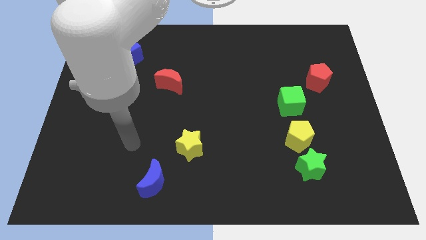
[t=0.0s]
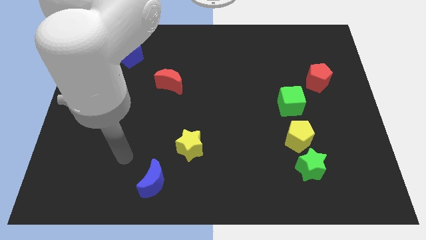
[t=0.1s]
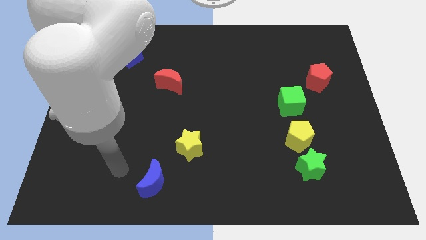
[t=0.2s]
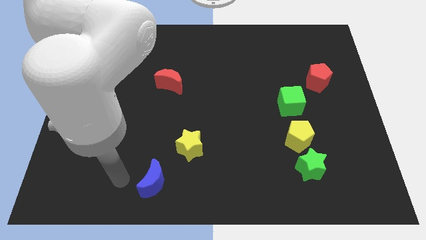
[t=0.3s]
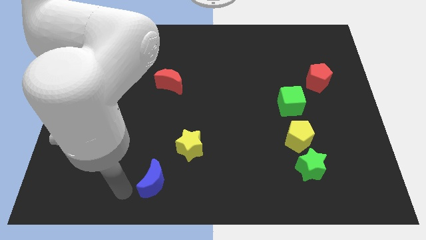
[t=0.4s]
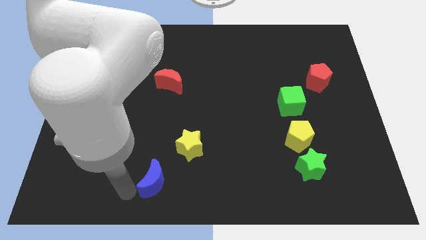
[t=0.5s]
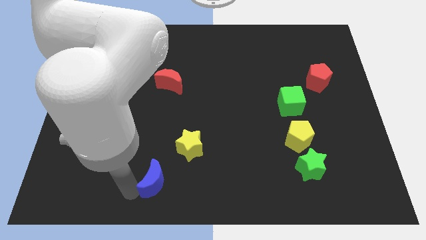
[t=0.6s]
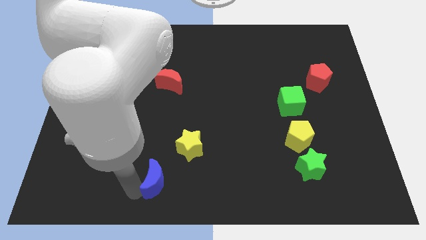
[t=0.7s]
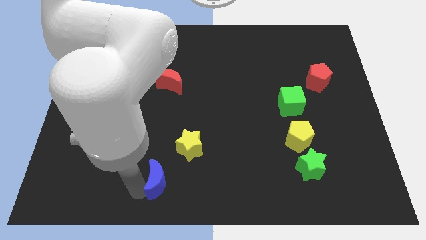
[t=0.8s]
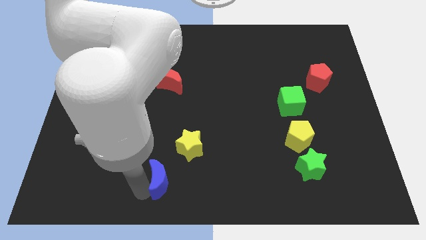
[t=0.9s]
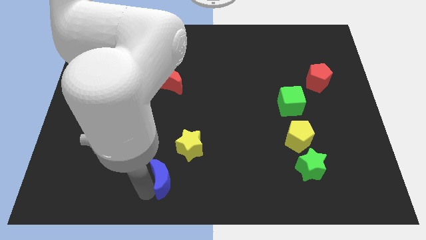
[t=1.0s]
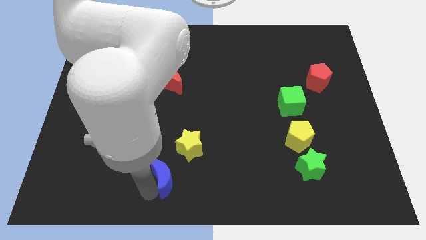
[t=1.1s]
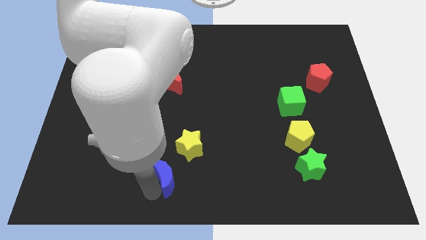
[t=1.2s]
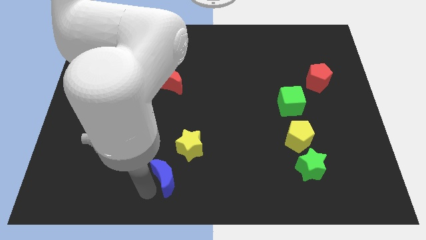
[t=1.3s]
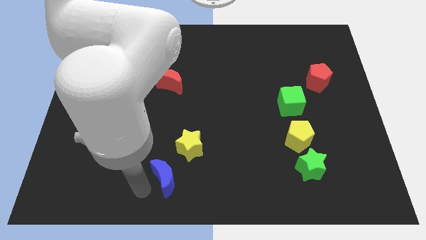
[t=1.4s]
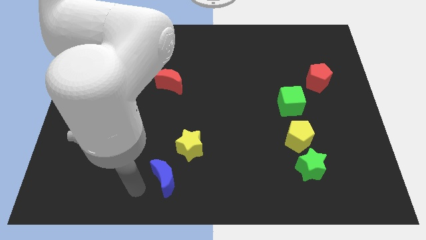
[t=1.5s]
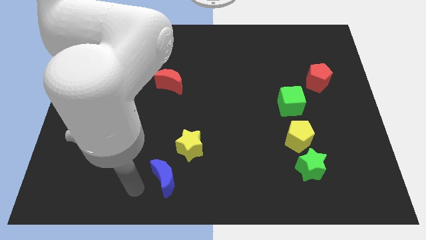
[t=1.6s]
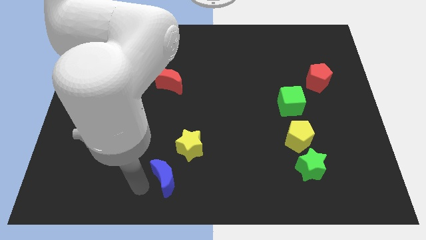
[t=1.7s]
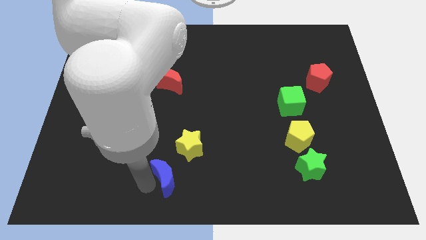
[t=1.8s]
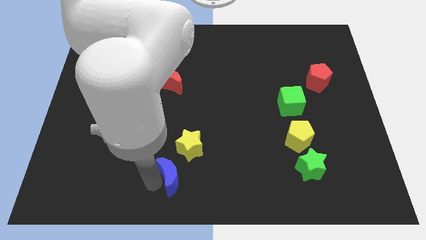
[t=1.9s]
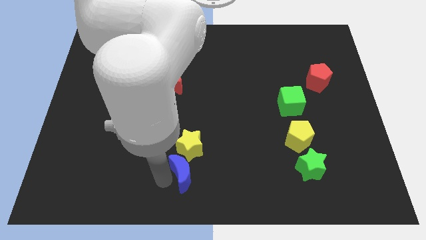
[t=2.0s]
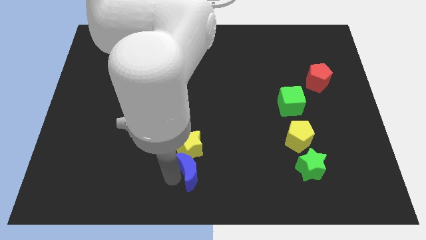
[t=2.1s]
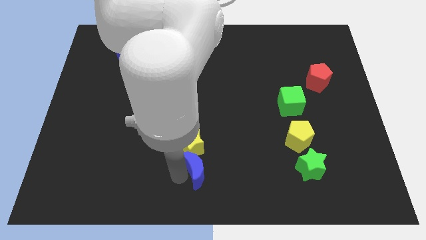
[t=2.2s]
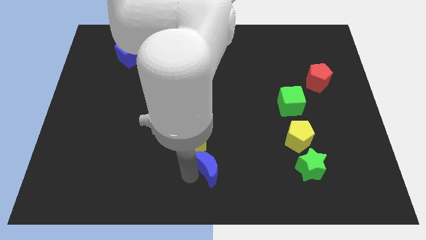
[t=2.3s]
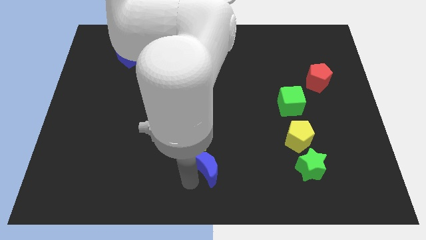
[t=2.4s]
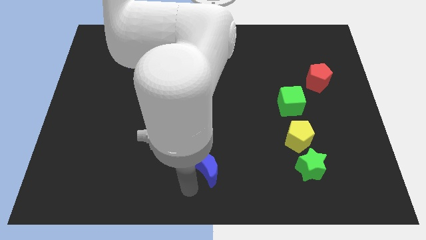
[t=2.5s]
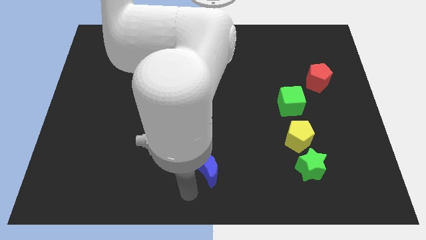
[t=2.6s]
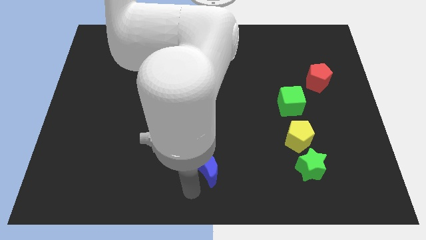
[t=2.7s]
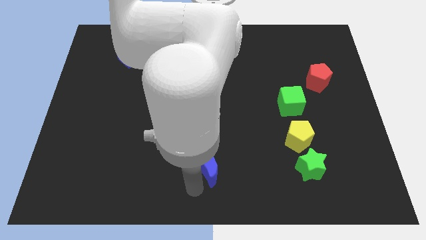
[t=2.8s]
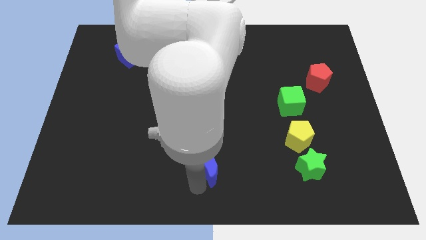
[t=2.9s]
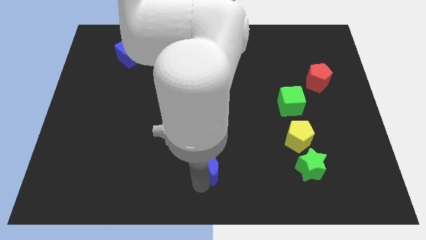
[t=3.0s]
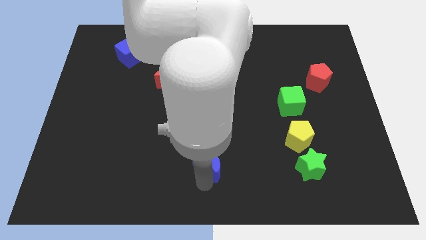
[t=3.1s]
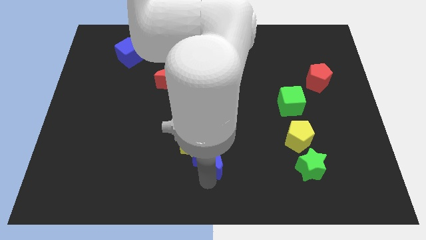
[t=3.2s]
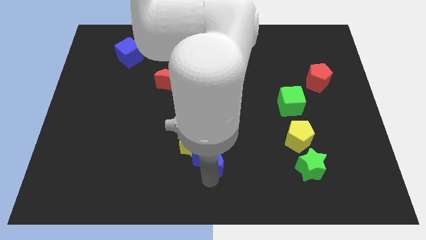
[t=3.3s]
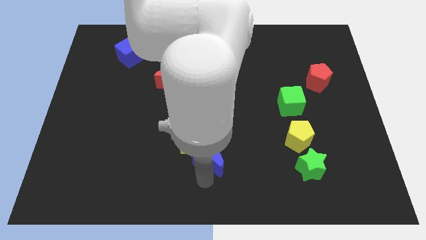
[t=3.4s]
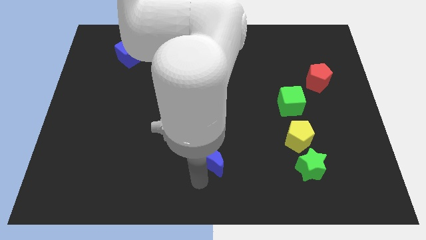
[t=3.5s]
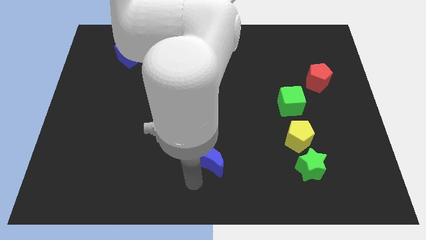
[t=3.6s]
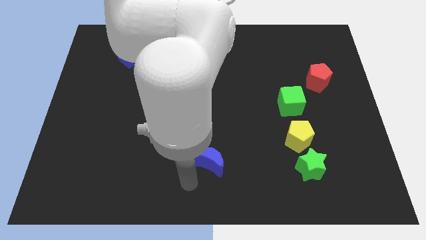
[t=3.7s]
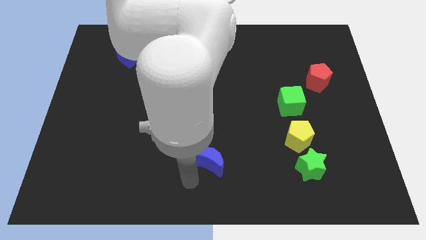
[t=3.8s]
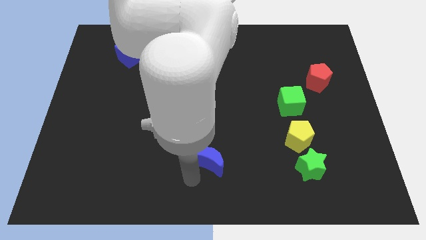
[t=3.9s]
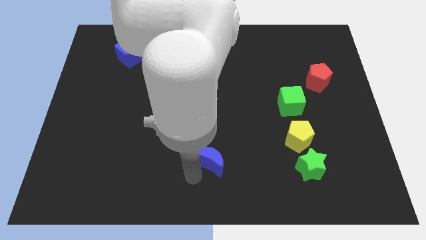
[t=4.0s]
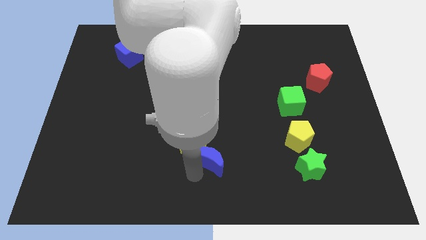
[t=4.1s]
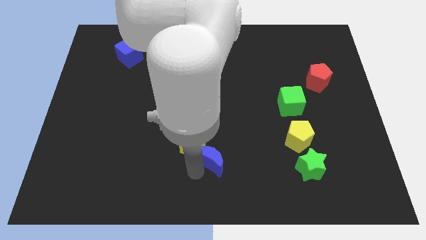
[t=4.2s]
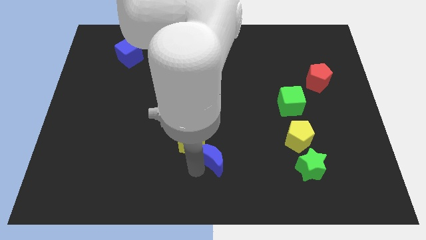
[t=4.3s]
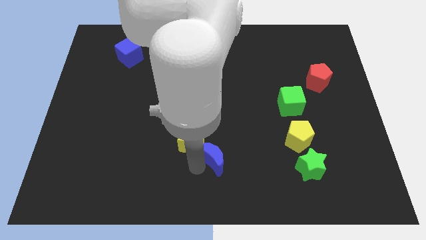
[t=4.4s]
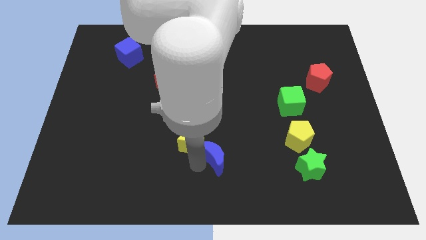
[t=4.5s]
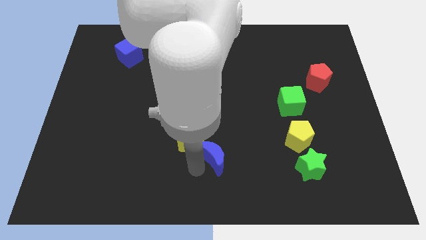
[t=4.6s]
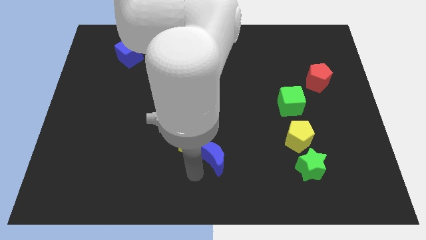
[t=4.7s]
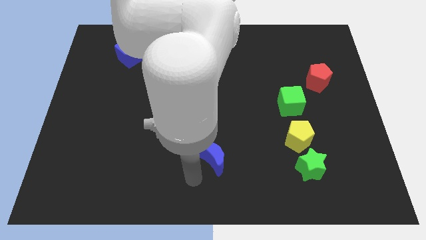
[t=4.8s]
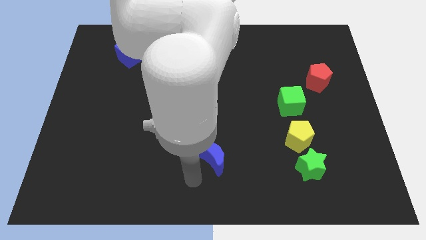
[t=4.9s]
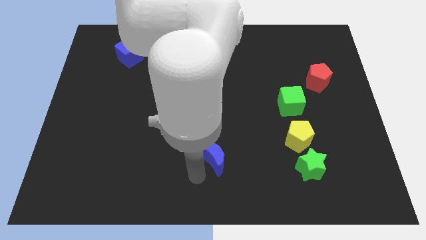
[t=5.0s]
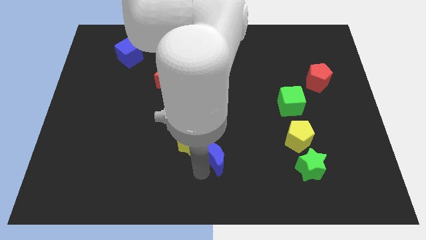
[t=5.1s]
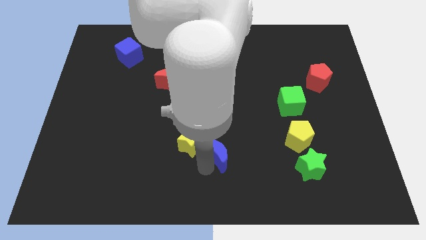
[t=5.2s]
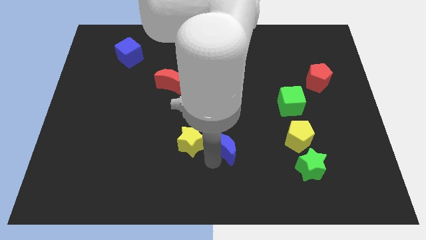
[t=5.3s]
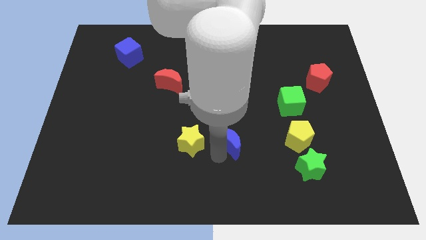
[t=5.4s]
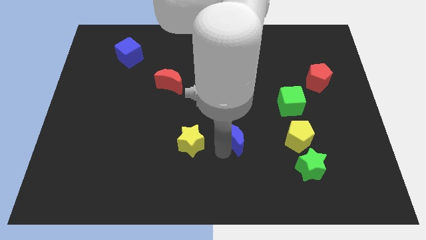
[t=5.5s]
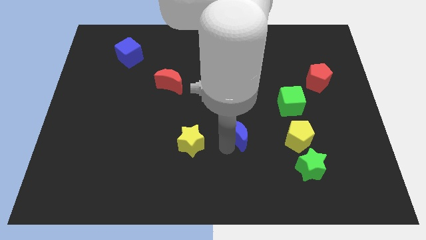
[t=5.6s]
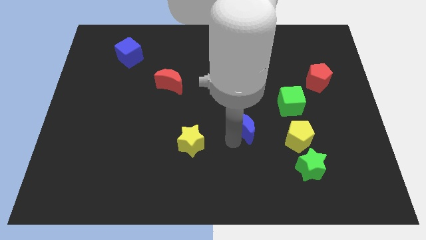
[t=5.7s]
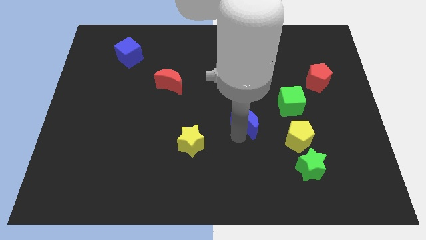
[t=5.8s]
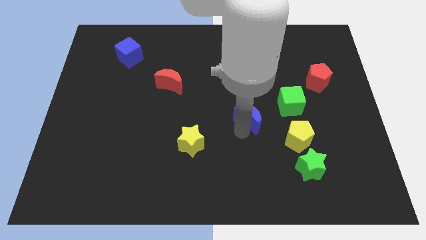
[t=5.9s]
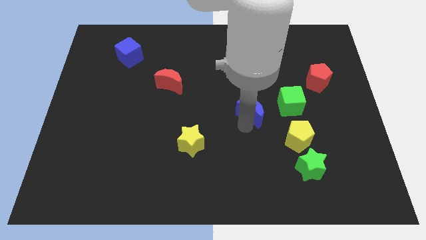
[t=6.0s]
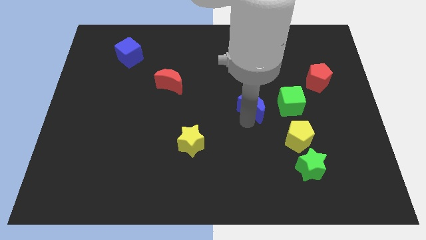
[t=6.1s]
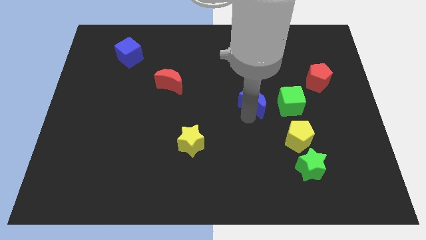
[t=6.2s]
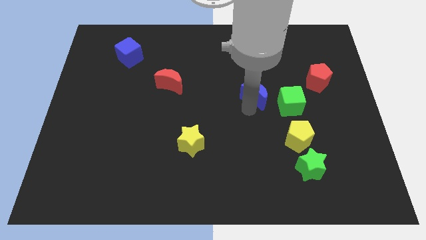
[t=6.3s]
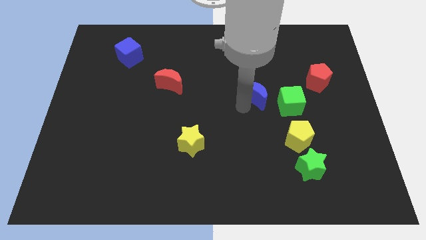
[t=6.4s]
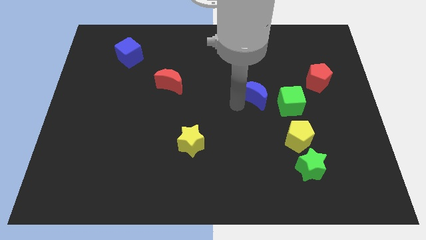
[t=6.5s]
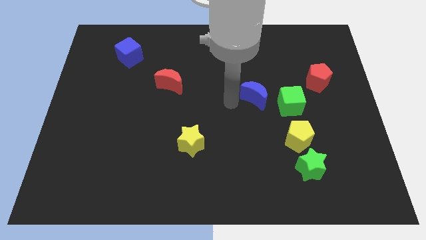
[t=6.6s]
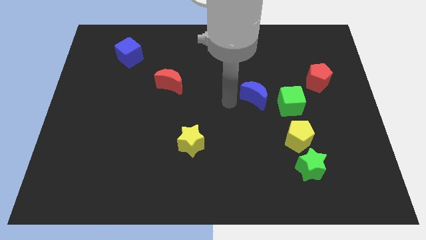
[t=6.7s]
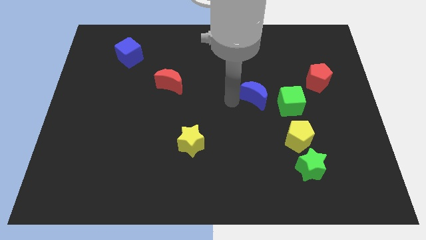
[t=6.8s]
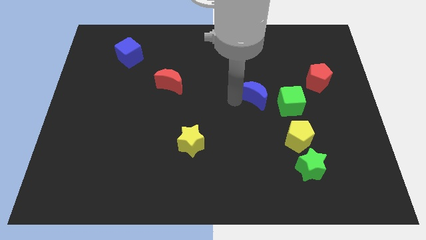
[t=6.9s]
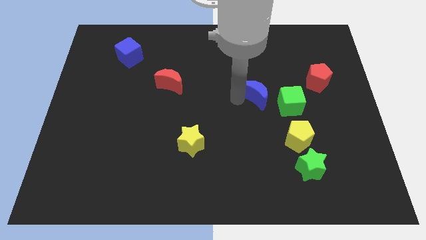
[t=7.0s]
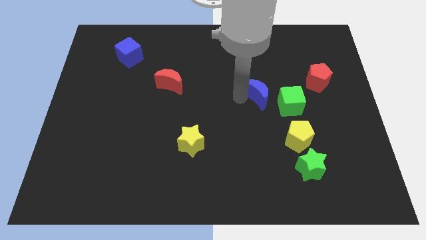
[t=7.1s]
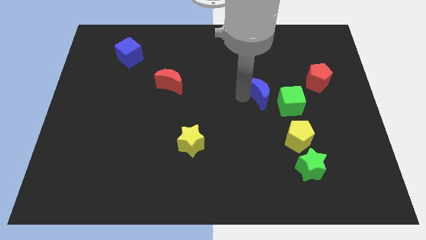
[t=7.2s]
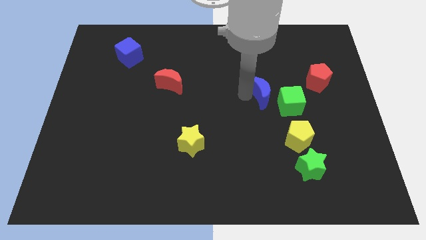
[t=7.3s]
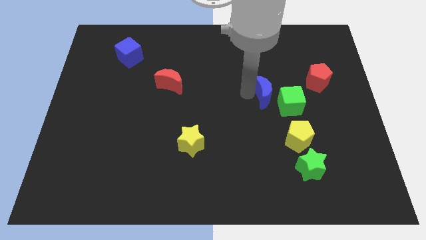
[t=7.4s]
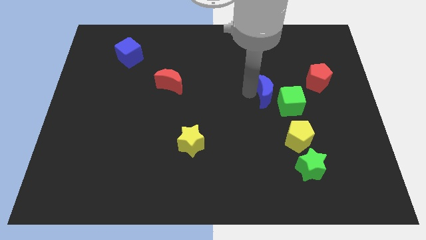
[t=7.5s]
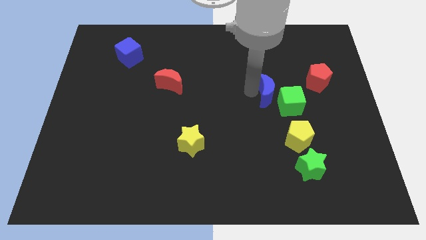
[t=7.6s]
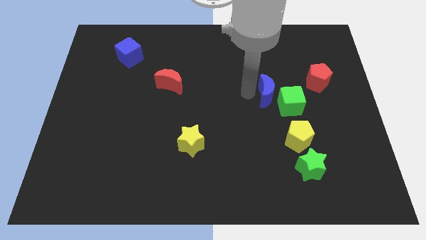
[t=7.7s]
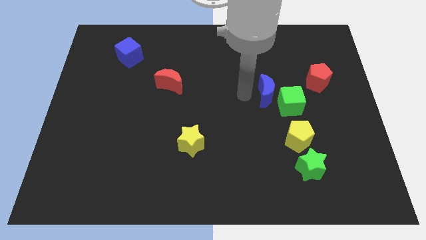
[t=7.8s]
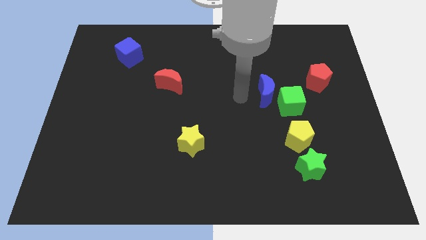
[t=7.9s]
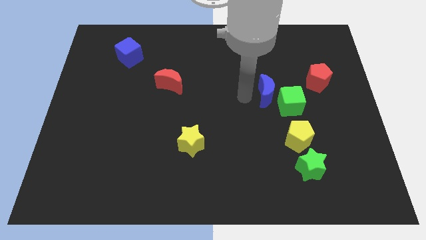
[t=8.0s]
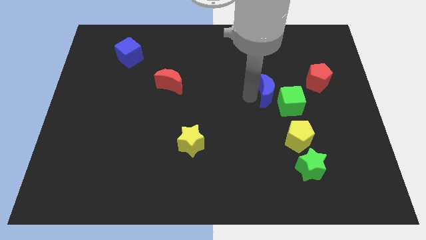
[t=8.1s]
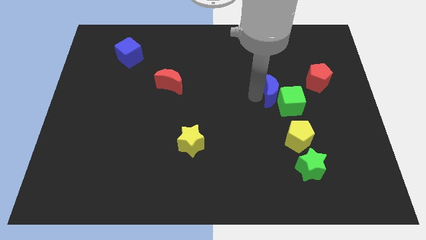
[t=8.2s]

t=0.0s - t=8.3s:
move the blue moon to the top side of the yellow pentagon
